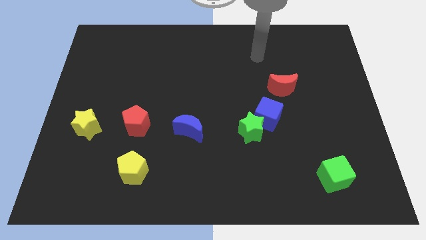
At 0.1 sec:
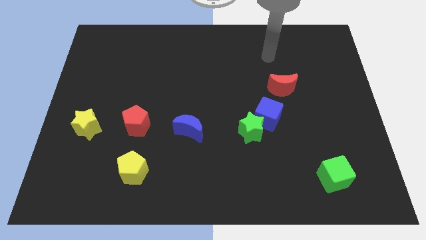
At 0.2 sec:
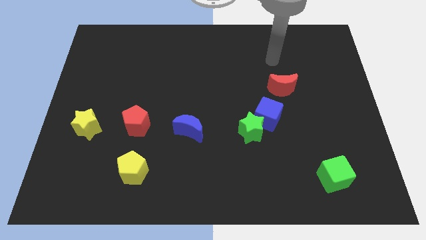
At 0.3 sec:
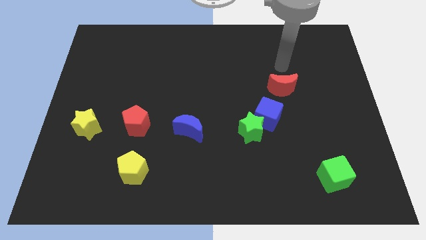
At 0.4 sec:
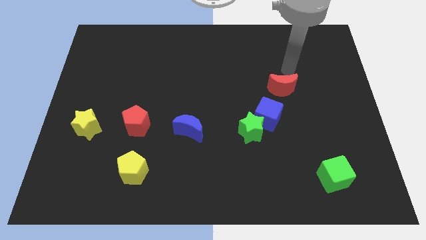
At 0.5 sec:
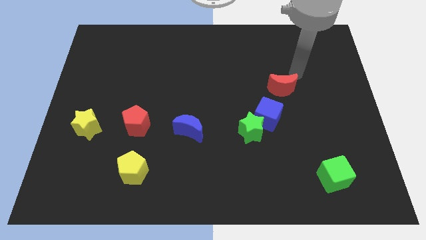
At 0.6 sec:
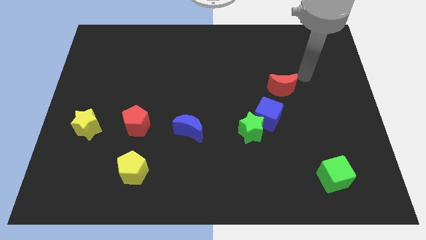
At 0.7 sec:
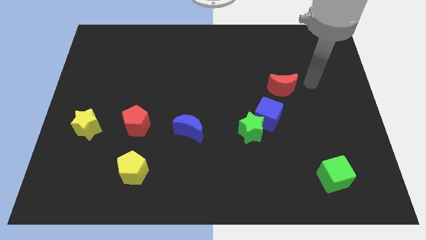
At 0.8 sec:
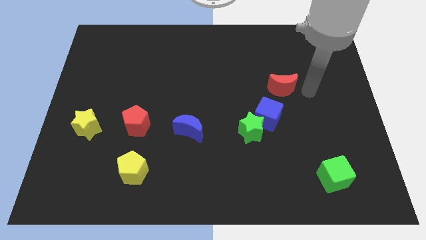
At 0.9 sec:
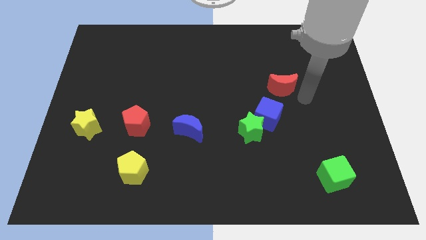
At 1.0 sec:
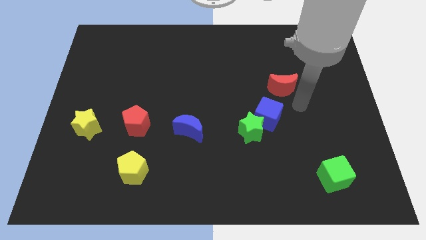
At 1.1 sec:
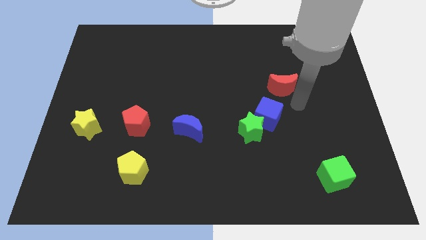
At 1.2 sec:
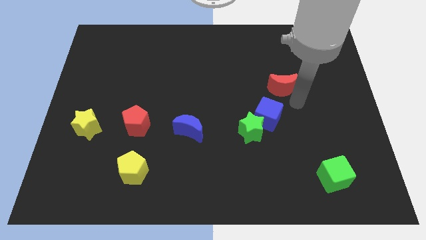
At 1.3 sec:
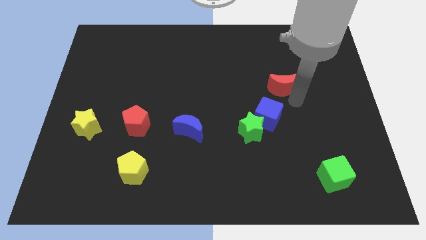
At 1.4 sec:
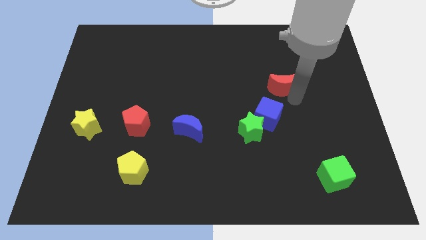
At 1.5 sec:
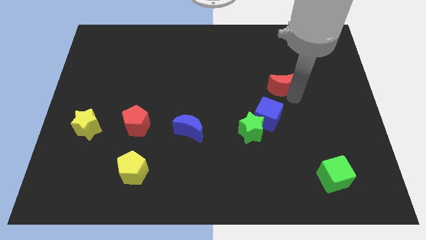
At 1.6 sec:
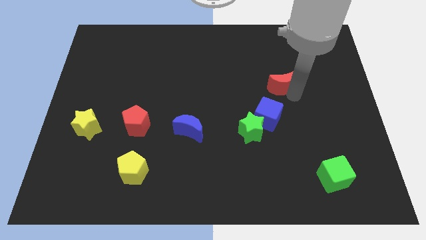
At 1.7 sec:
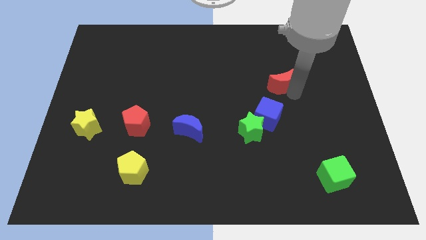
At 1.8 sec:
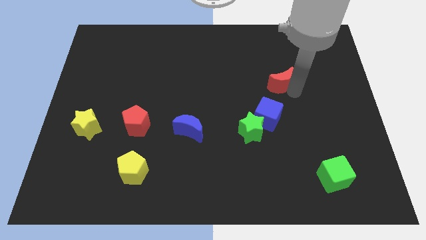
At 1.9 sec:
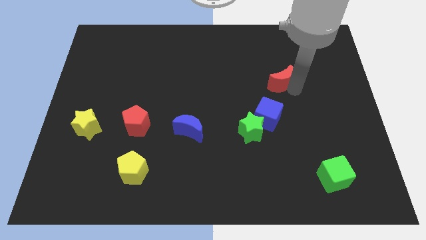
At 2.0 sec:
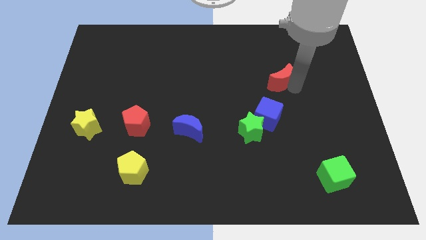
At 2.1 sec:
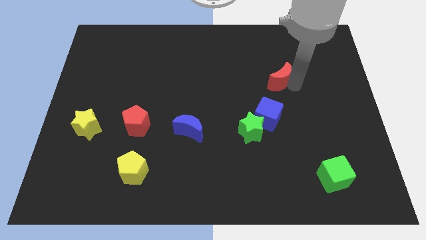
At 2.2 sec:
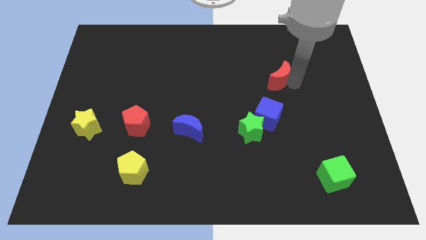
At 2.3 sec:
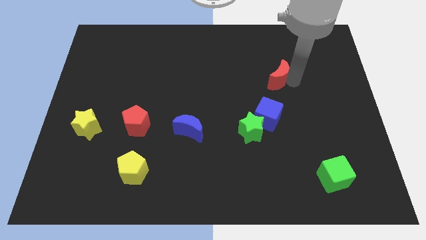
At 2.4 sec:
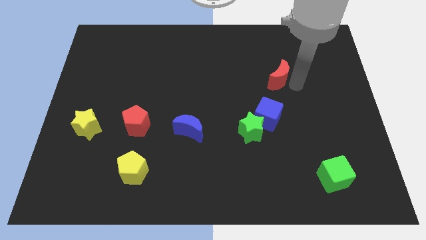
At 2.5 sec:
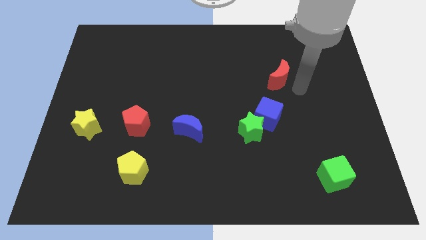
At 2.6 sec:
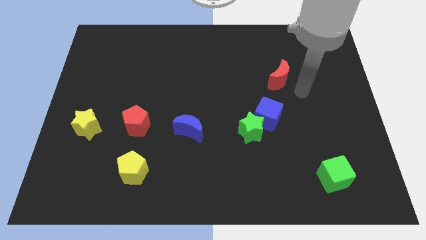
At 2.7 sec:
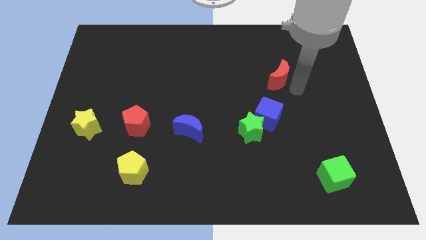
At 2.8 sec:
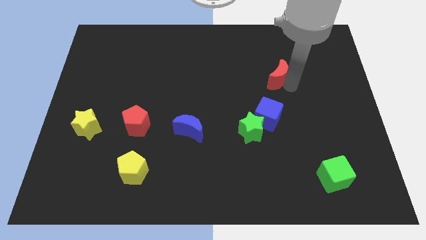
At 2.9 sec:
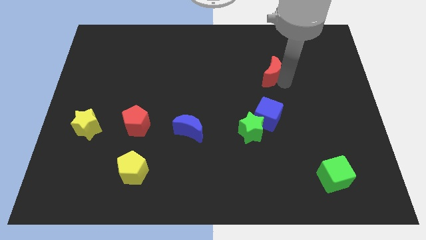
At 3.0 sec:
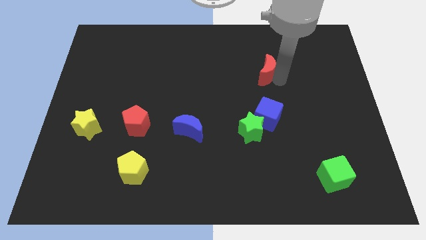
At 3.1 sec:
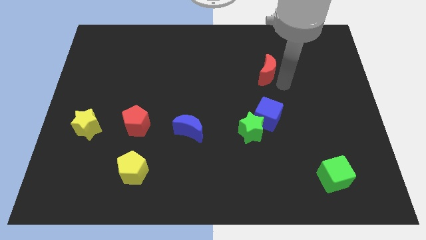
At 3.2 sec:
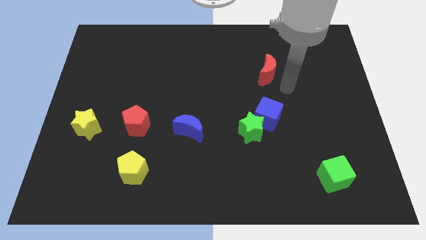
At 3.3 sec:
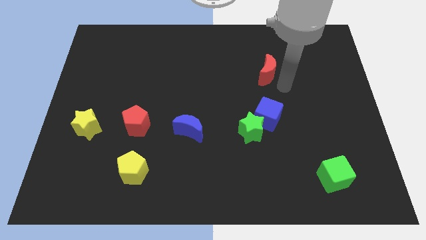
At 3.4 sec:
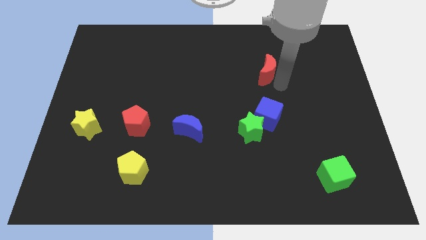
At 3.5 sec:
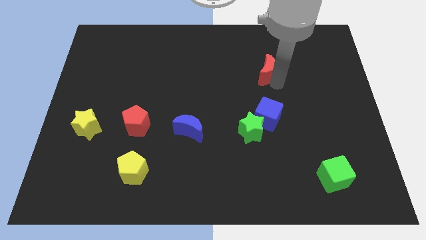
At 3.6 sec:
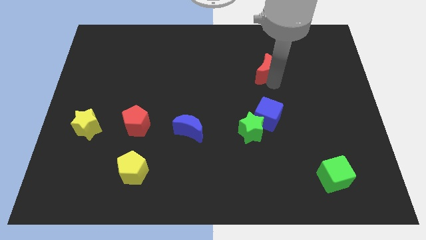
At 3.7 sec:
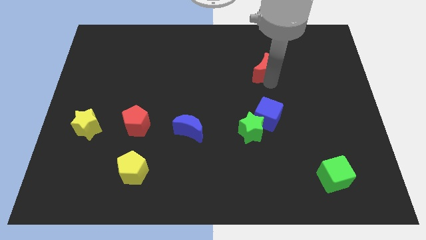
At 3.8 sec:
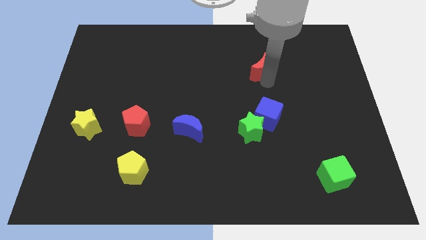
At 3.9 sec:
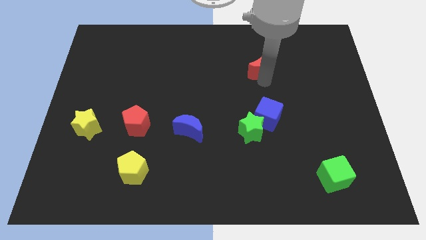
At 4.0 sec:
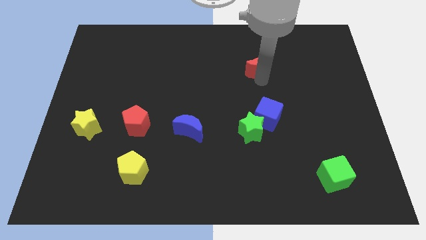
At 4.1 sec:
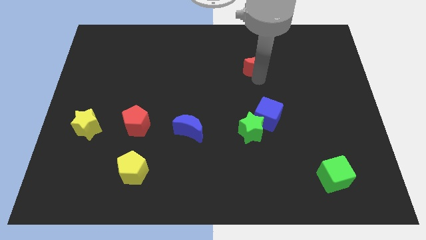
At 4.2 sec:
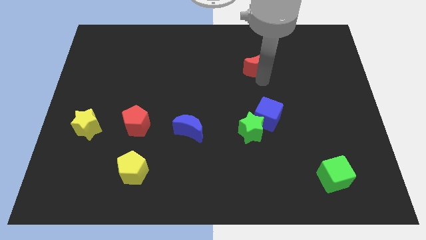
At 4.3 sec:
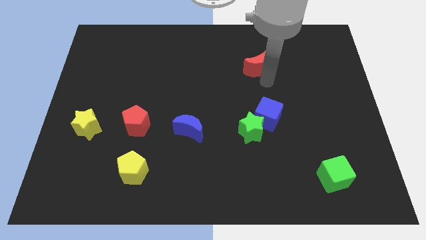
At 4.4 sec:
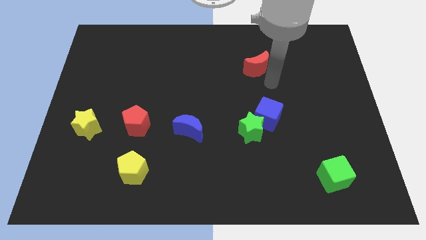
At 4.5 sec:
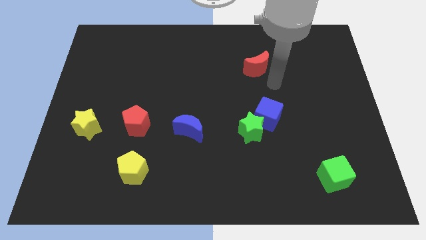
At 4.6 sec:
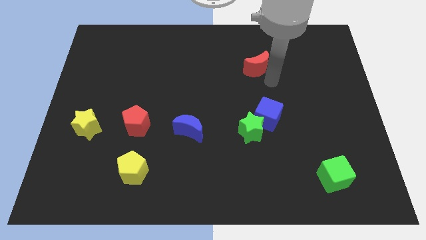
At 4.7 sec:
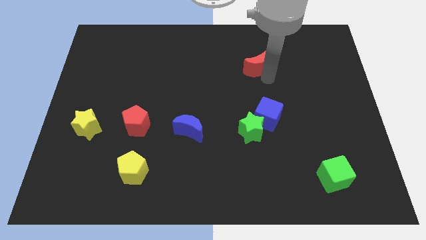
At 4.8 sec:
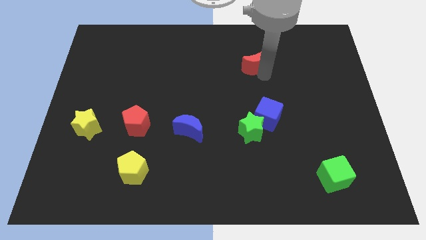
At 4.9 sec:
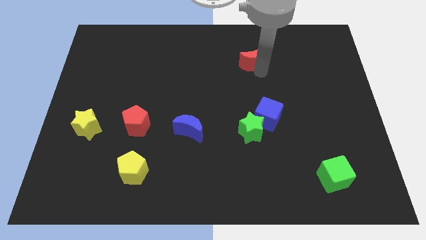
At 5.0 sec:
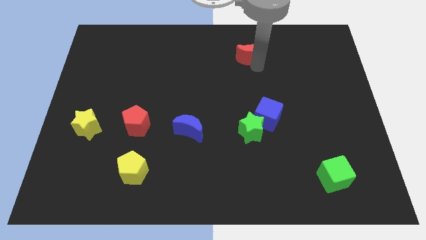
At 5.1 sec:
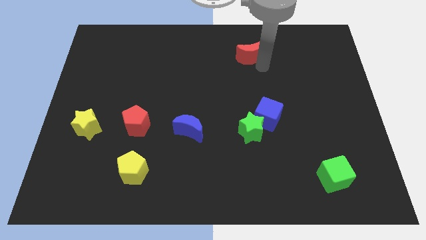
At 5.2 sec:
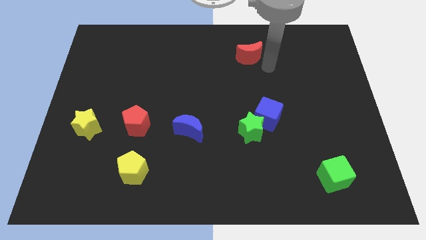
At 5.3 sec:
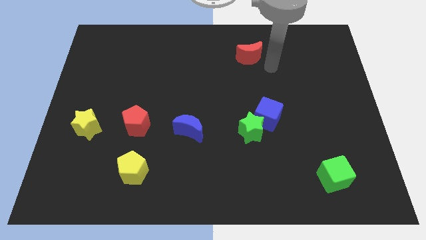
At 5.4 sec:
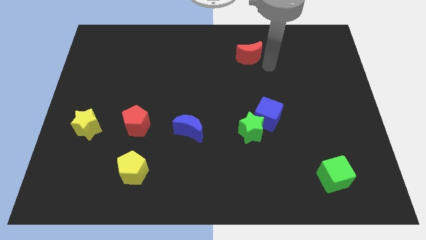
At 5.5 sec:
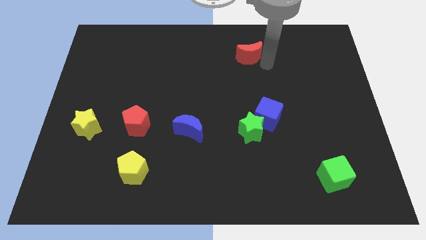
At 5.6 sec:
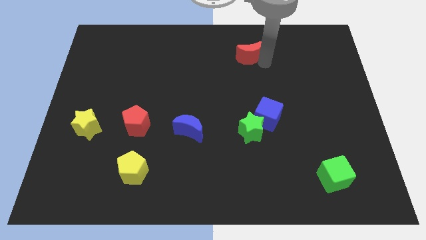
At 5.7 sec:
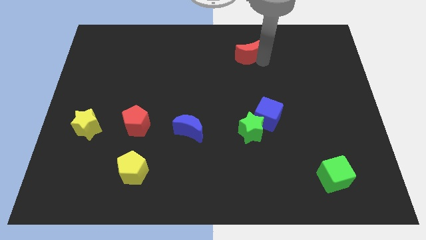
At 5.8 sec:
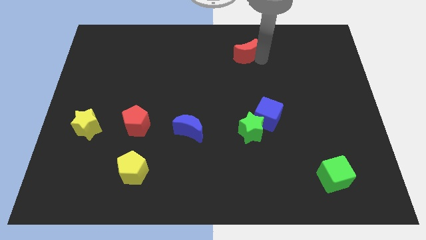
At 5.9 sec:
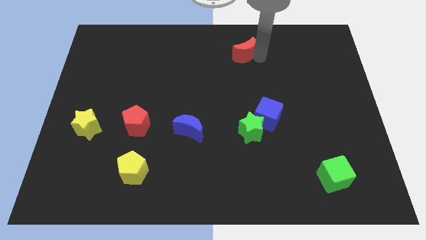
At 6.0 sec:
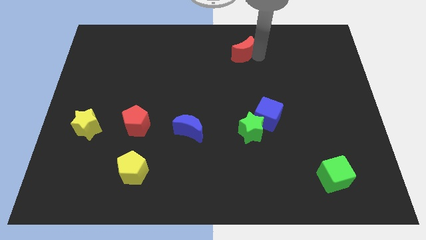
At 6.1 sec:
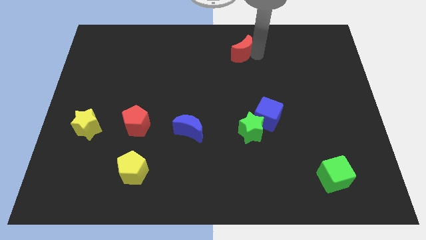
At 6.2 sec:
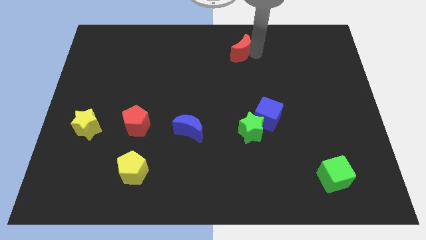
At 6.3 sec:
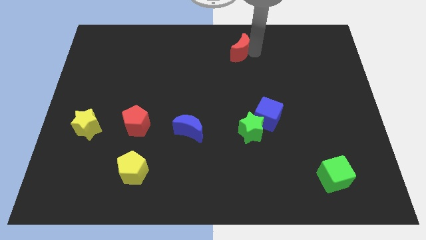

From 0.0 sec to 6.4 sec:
push the red moon to the top side
